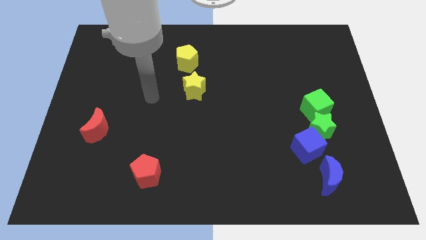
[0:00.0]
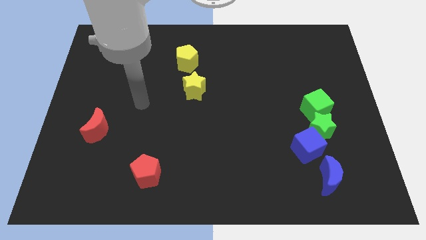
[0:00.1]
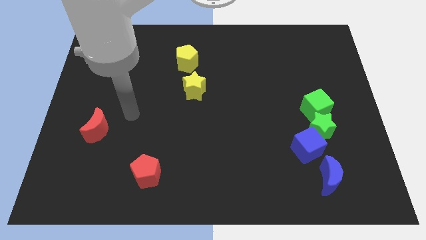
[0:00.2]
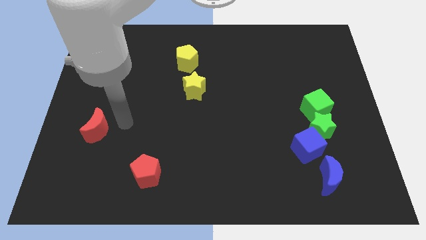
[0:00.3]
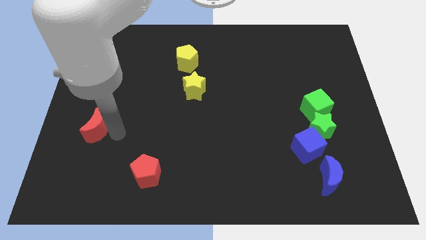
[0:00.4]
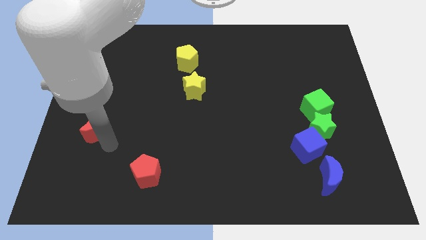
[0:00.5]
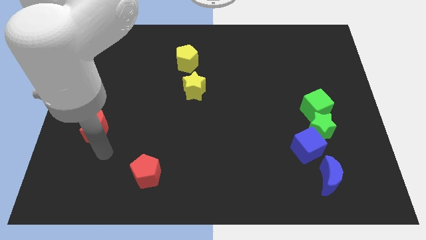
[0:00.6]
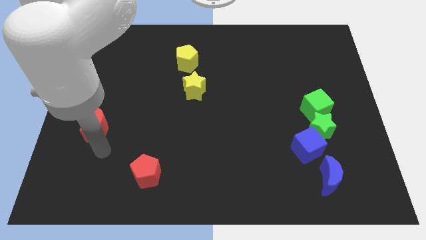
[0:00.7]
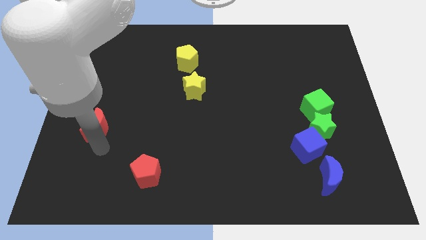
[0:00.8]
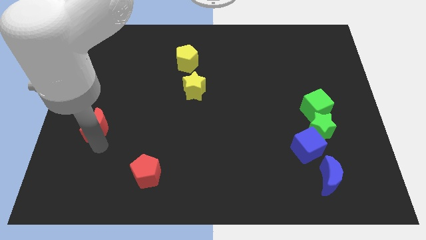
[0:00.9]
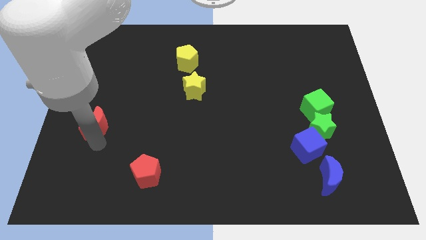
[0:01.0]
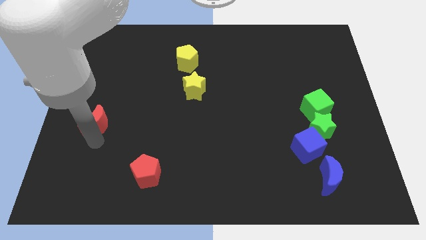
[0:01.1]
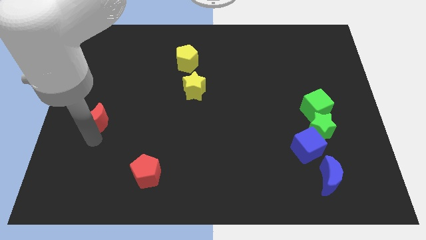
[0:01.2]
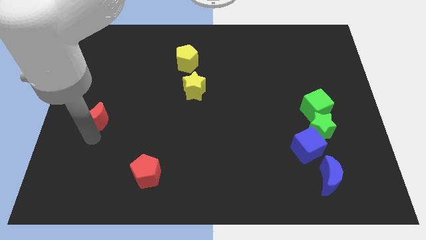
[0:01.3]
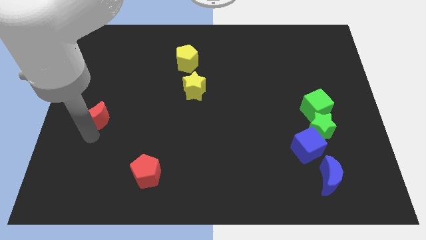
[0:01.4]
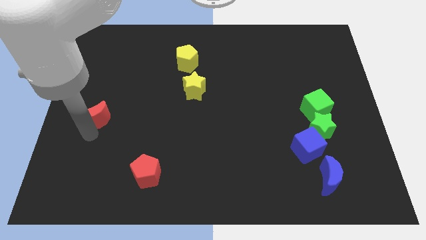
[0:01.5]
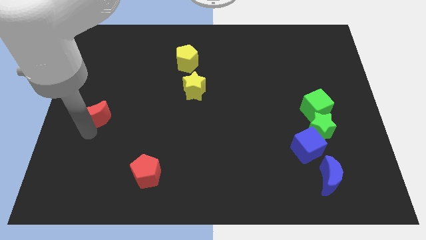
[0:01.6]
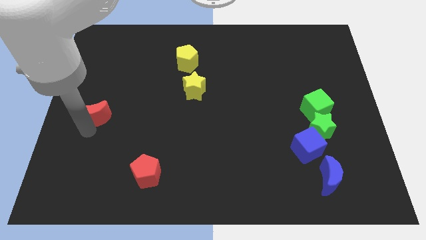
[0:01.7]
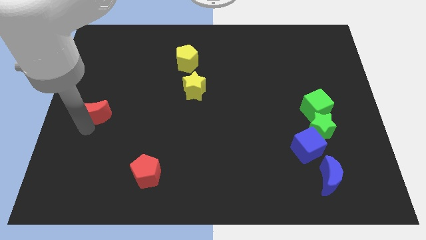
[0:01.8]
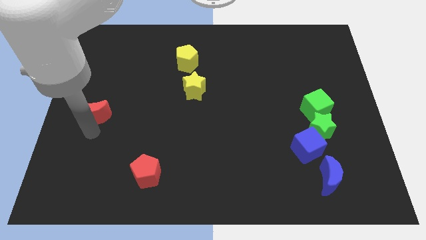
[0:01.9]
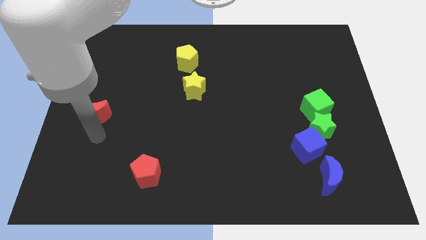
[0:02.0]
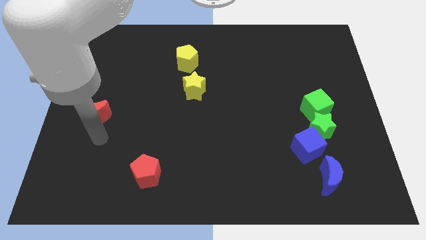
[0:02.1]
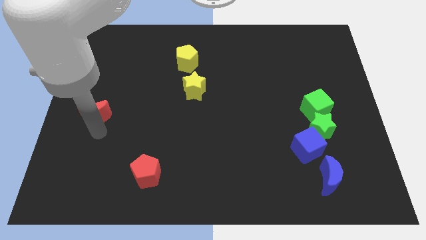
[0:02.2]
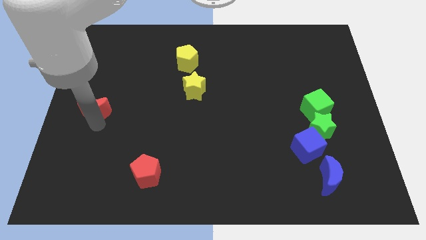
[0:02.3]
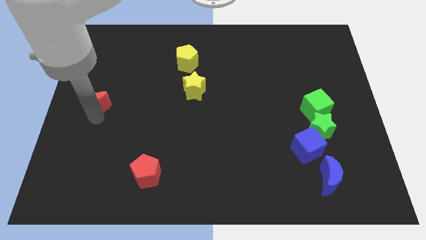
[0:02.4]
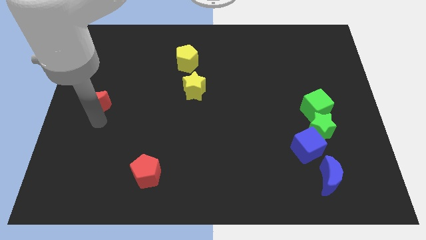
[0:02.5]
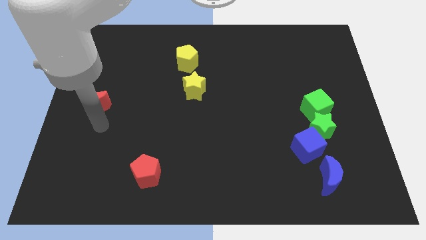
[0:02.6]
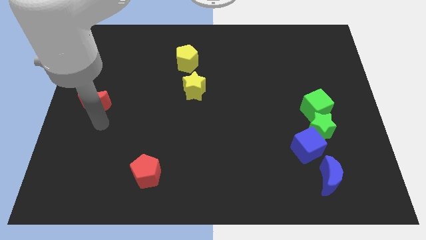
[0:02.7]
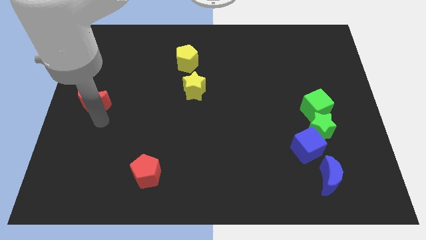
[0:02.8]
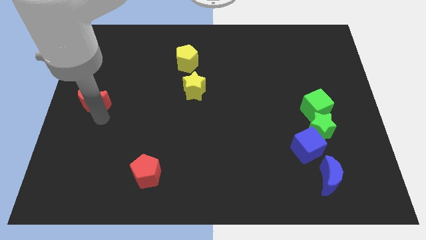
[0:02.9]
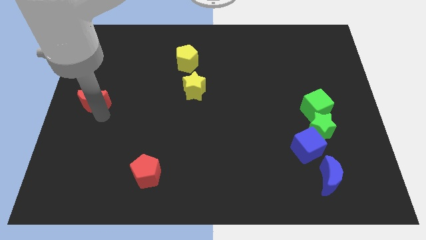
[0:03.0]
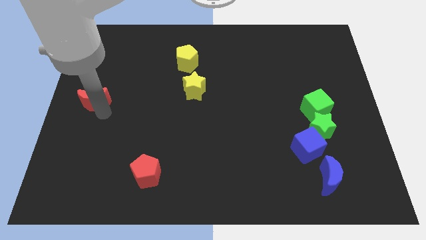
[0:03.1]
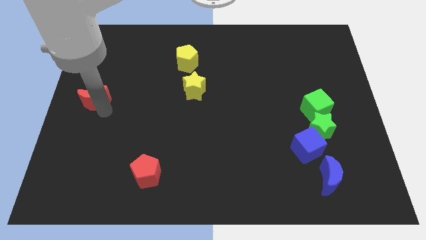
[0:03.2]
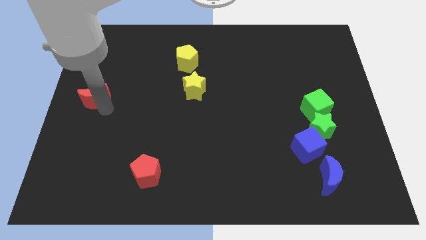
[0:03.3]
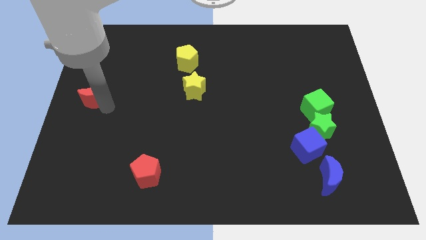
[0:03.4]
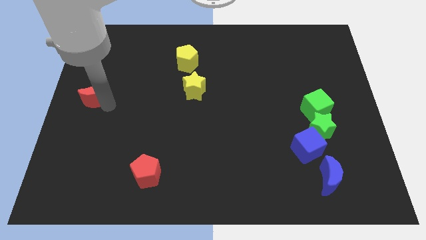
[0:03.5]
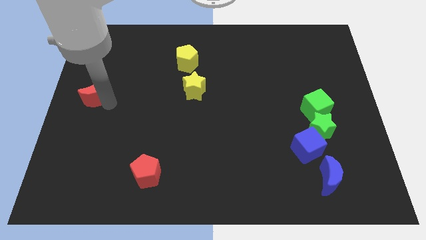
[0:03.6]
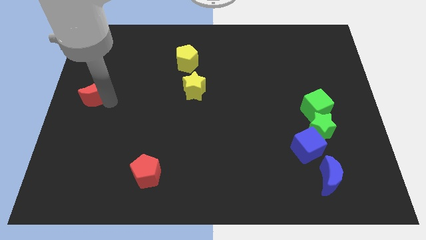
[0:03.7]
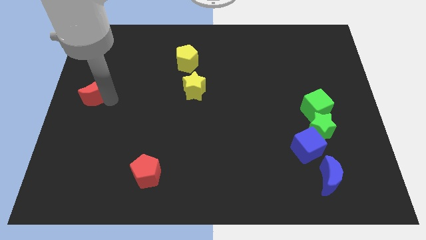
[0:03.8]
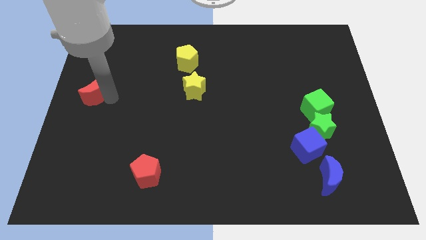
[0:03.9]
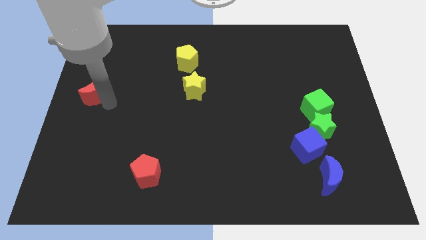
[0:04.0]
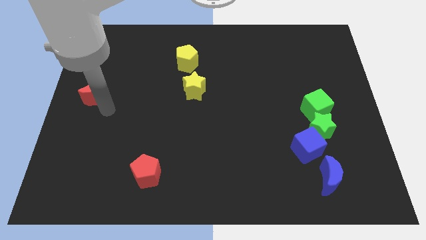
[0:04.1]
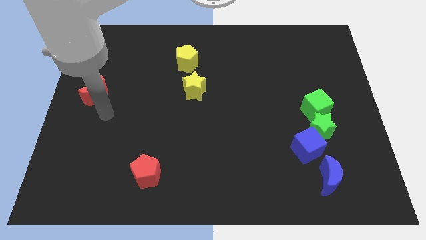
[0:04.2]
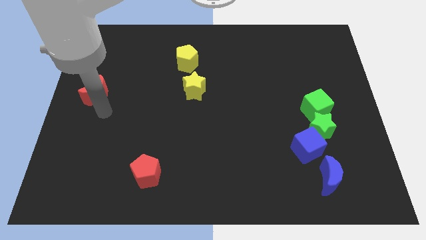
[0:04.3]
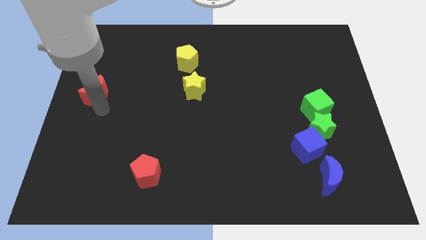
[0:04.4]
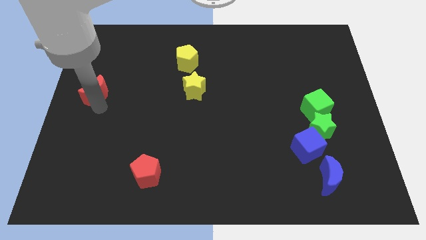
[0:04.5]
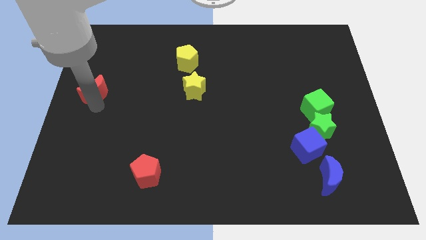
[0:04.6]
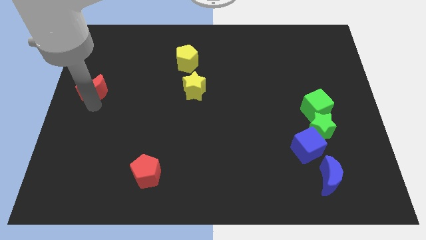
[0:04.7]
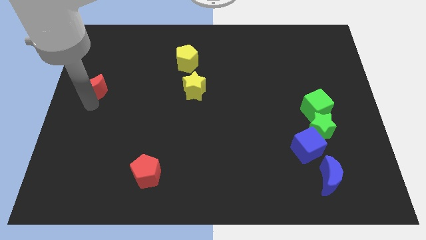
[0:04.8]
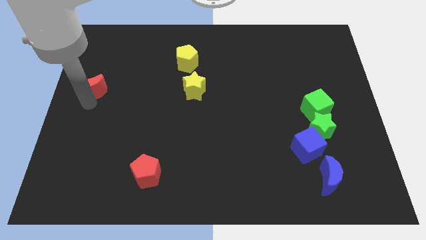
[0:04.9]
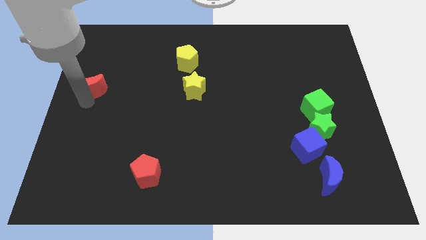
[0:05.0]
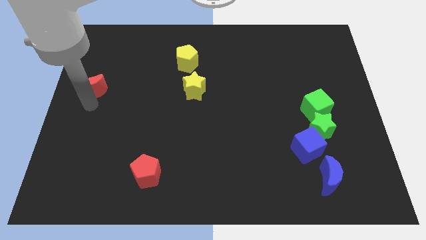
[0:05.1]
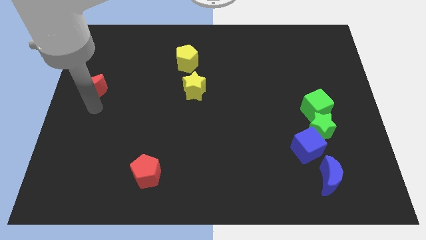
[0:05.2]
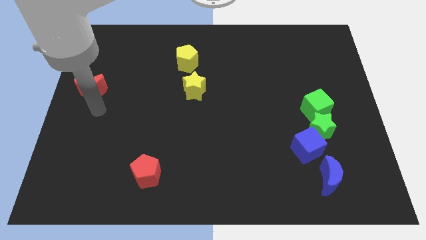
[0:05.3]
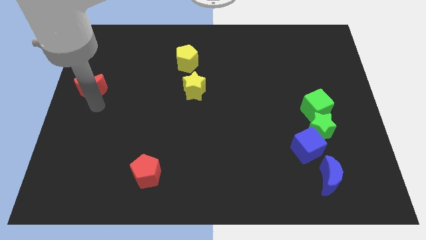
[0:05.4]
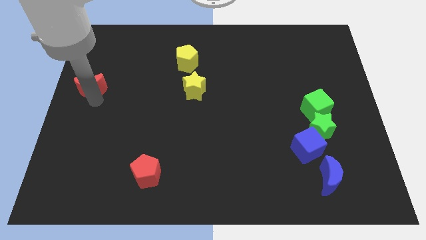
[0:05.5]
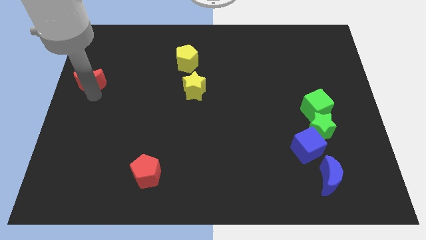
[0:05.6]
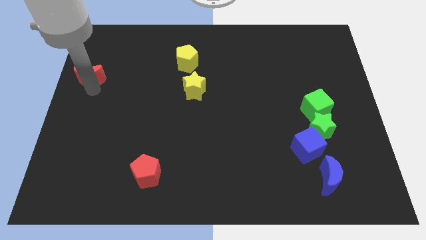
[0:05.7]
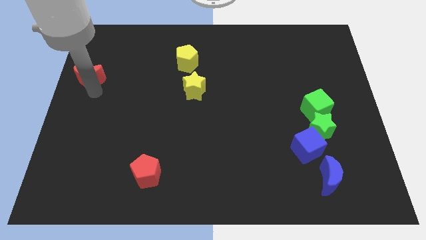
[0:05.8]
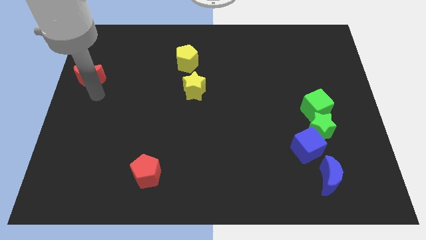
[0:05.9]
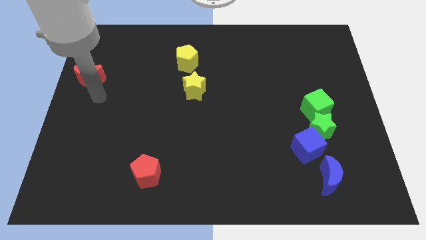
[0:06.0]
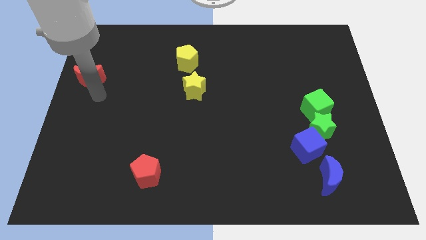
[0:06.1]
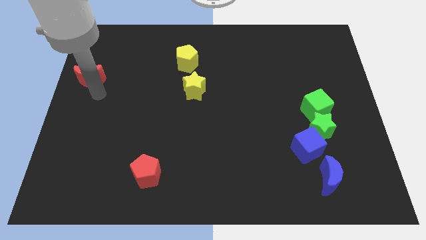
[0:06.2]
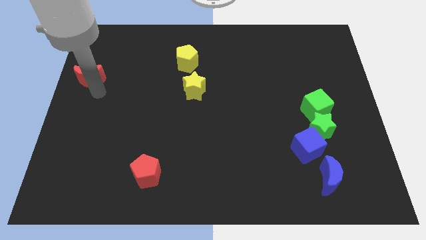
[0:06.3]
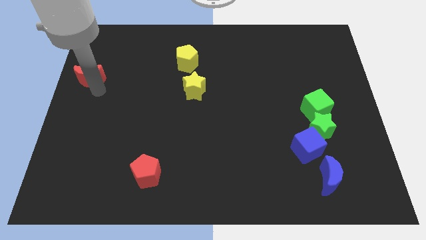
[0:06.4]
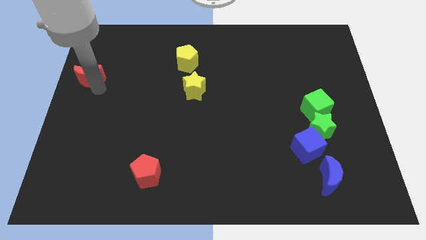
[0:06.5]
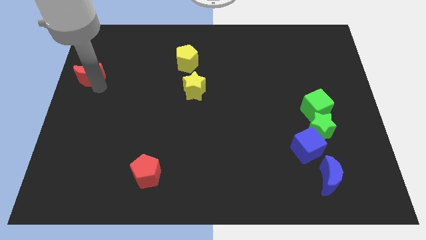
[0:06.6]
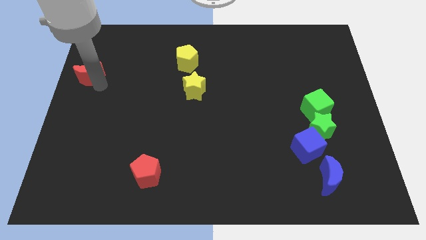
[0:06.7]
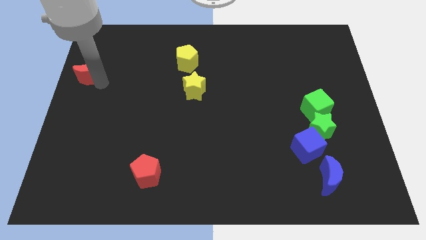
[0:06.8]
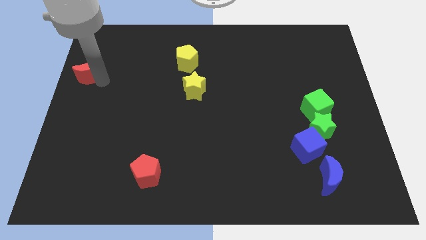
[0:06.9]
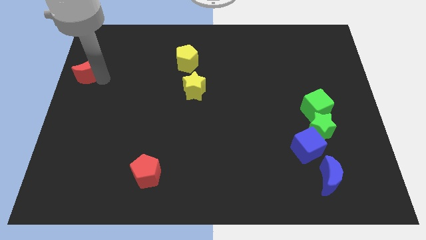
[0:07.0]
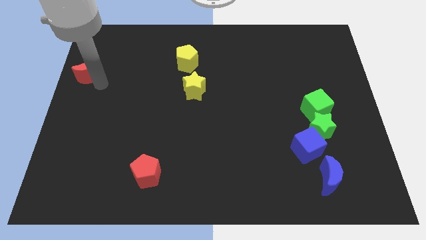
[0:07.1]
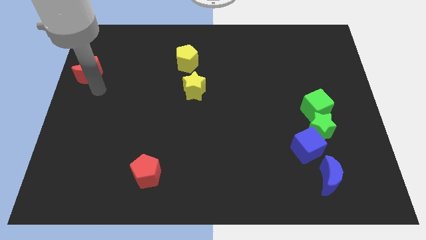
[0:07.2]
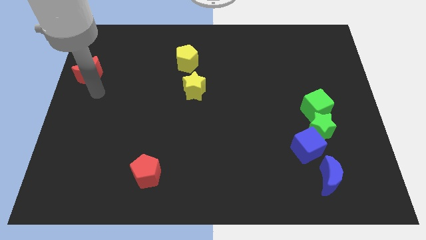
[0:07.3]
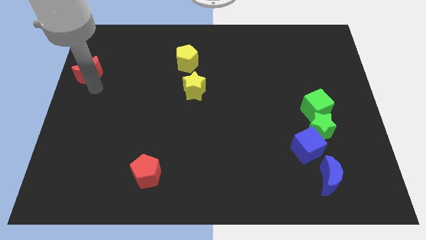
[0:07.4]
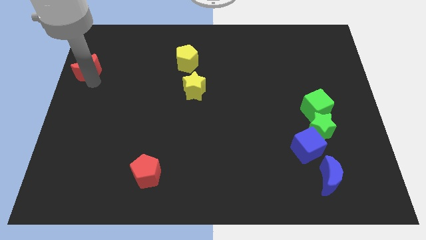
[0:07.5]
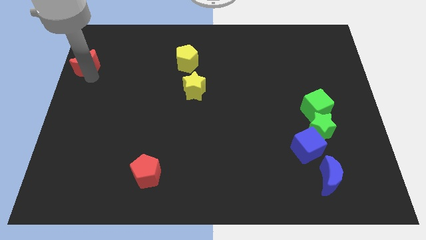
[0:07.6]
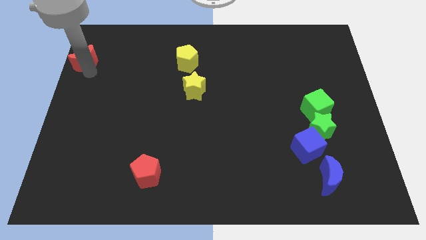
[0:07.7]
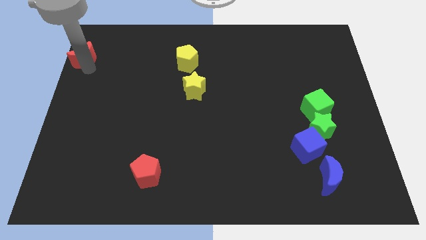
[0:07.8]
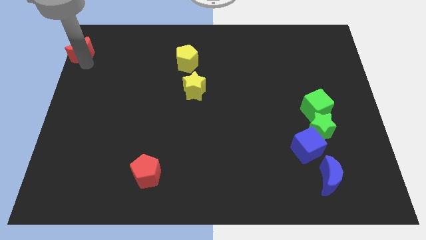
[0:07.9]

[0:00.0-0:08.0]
move the red moon to the top left of the board
